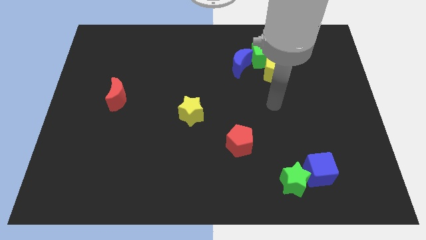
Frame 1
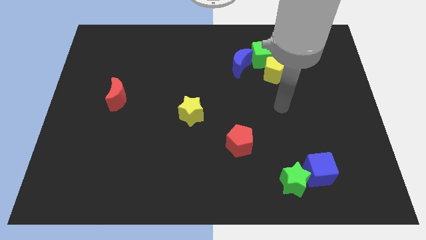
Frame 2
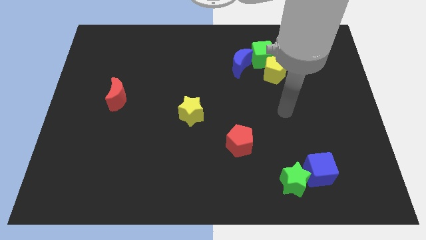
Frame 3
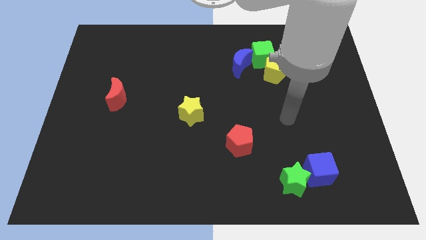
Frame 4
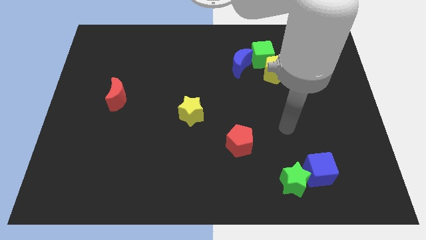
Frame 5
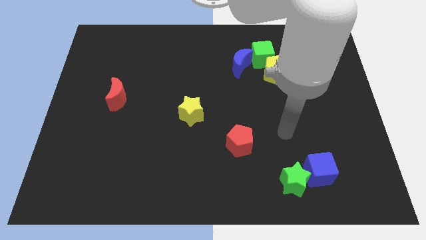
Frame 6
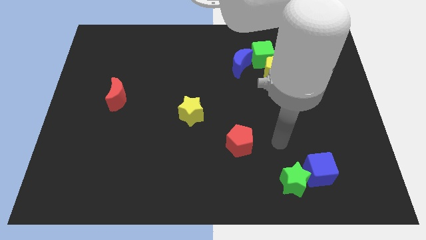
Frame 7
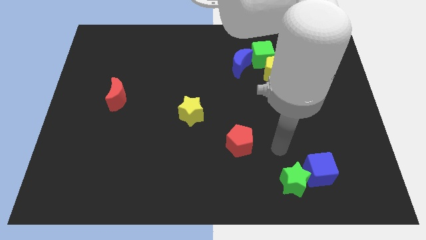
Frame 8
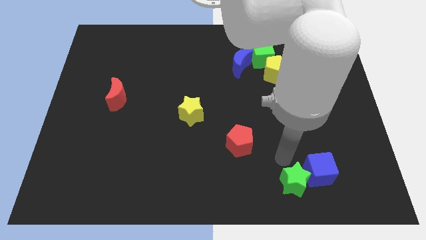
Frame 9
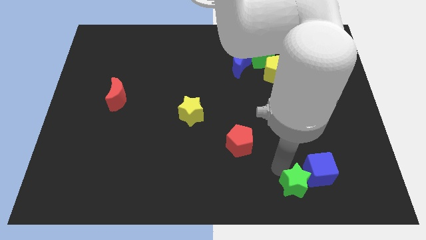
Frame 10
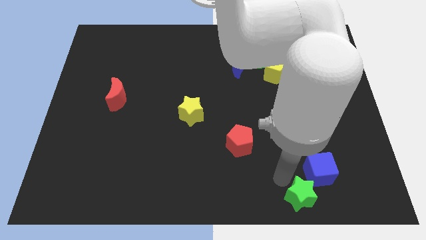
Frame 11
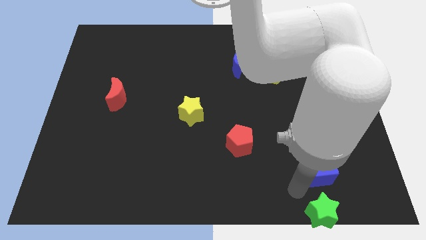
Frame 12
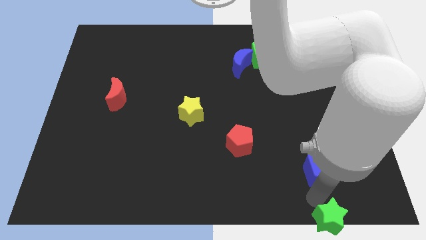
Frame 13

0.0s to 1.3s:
pull the blue cube apart from the green star

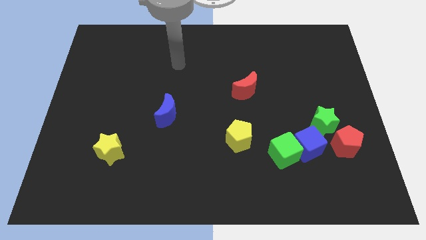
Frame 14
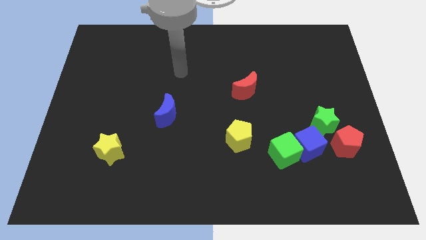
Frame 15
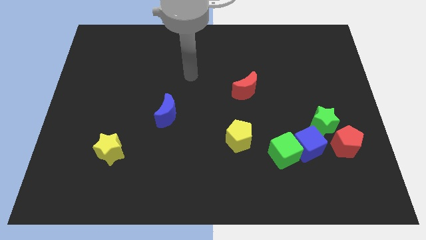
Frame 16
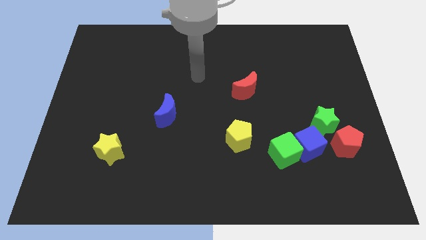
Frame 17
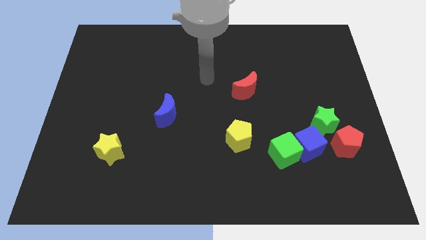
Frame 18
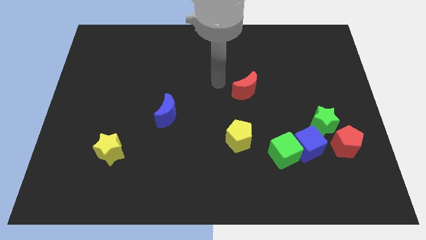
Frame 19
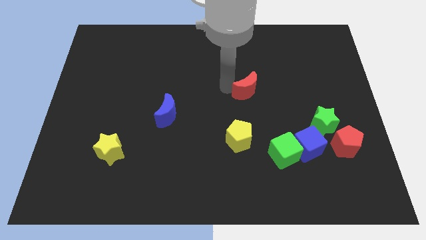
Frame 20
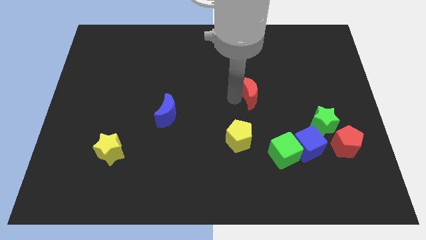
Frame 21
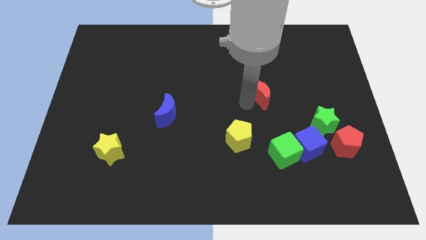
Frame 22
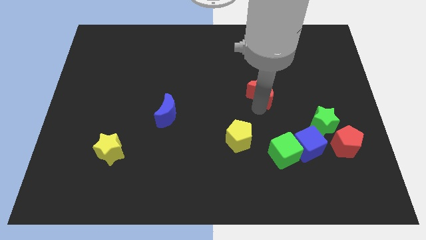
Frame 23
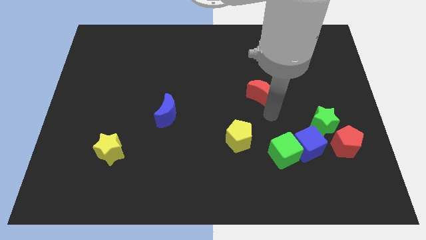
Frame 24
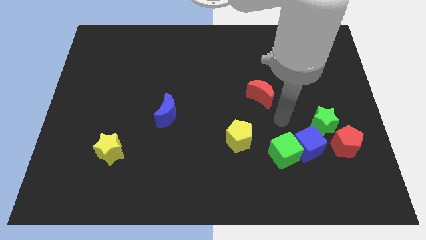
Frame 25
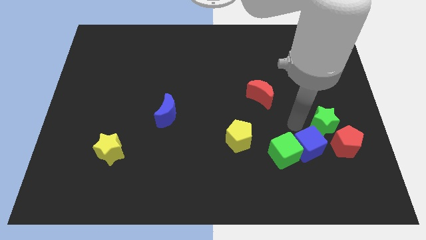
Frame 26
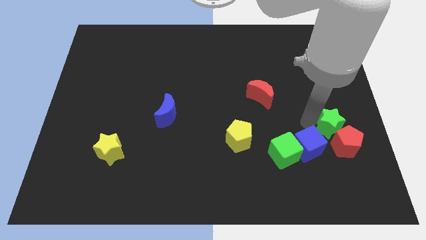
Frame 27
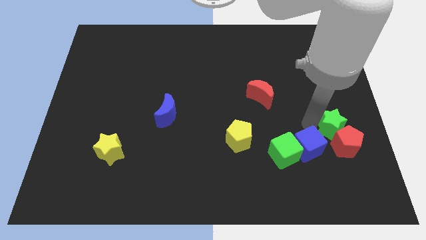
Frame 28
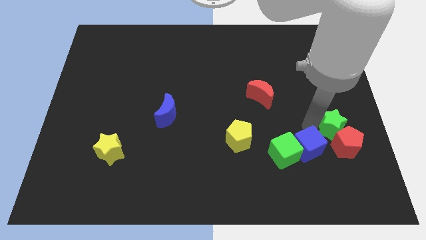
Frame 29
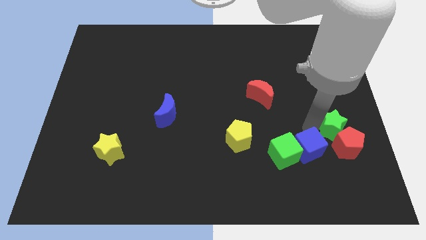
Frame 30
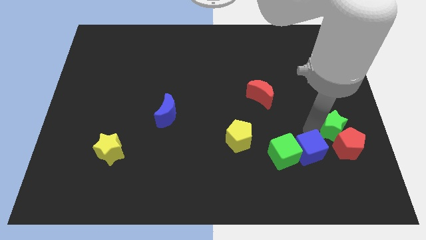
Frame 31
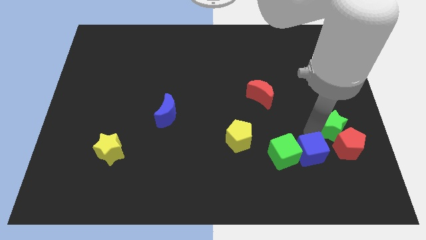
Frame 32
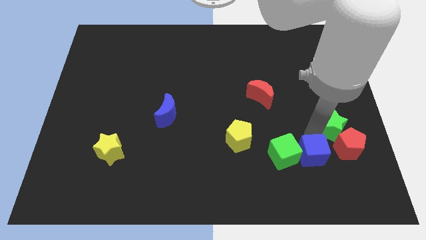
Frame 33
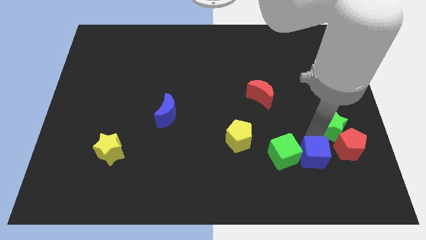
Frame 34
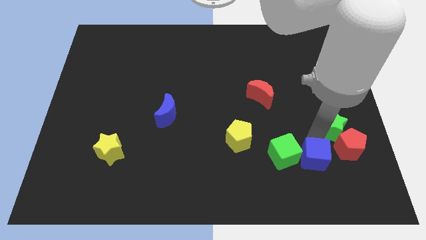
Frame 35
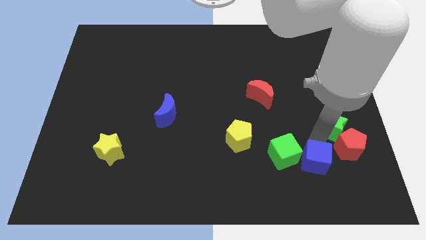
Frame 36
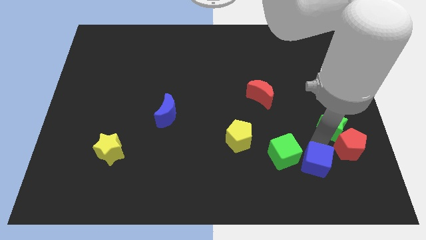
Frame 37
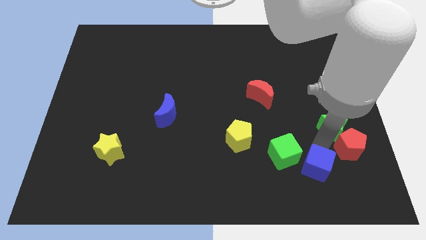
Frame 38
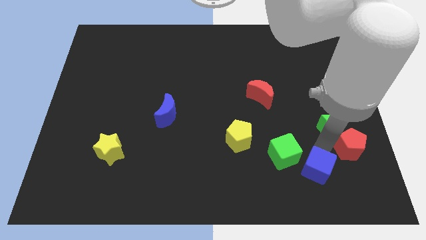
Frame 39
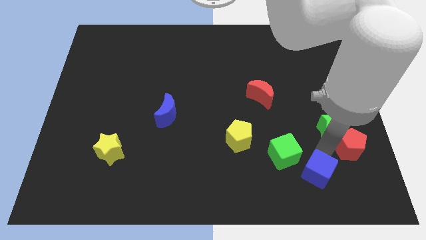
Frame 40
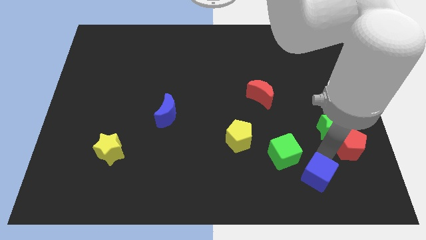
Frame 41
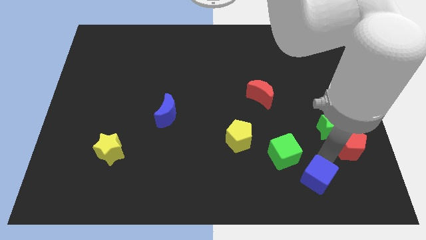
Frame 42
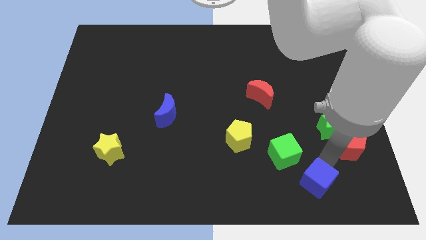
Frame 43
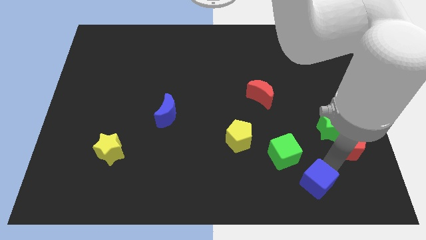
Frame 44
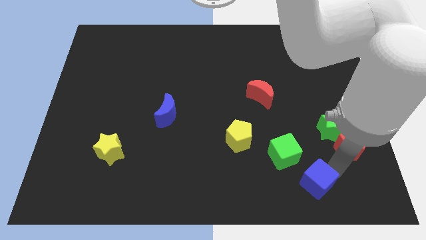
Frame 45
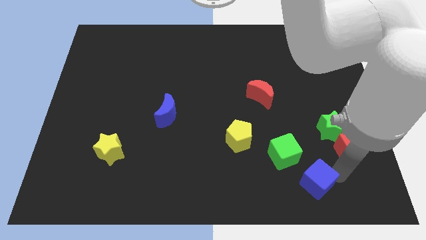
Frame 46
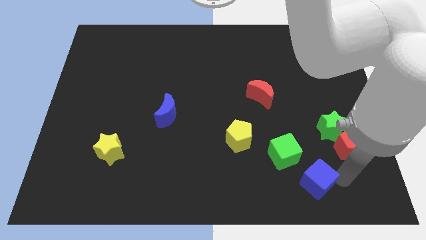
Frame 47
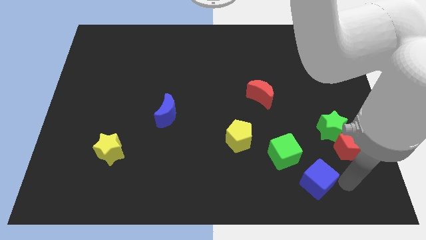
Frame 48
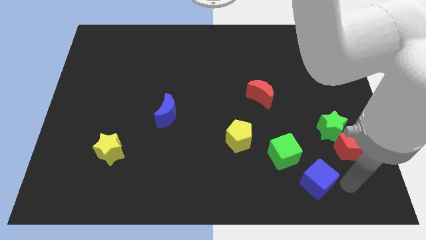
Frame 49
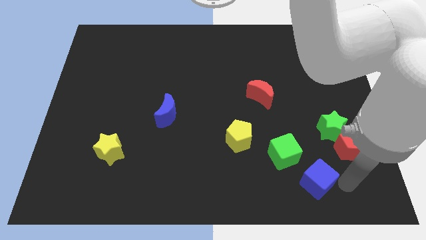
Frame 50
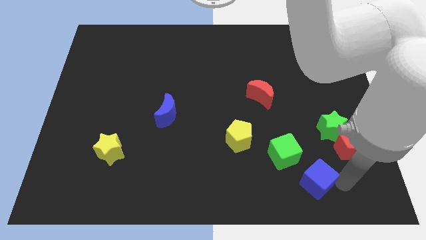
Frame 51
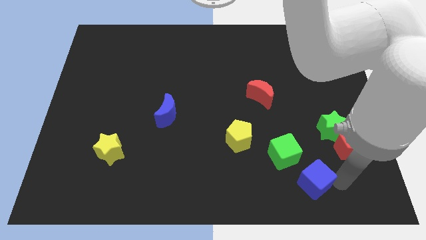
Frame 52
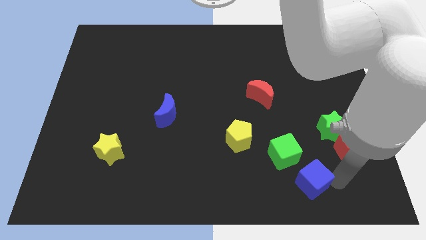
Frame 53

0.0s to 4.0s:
pull the blue cube apart from the green cube, green star, and red pentagon

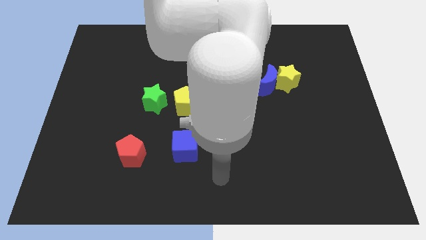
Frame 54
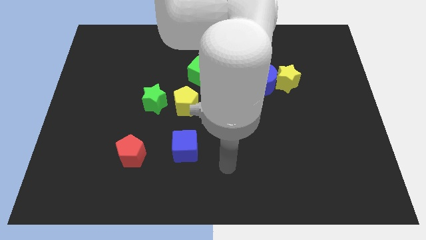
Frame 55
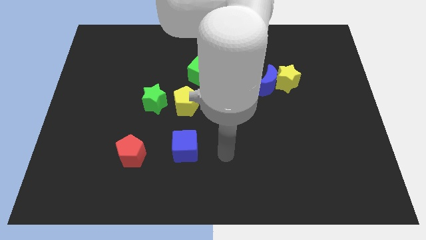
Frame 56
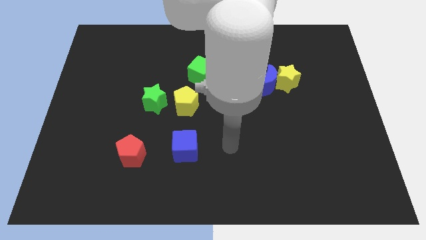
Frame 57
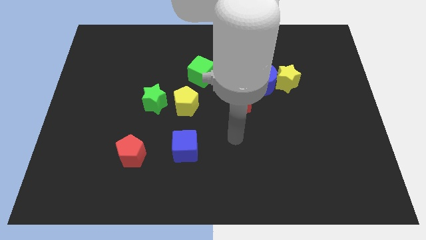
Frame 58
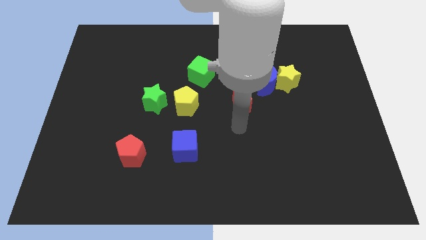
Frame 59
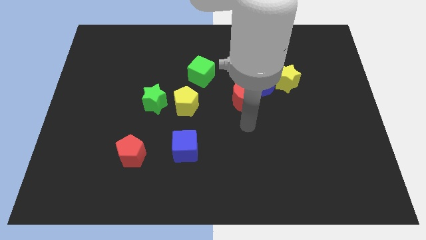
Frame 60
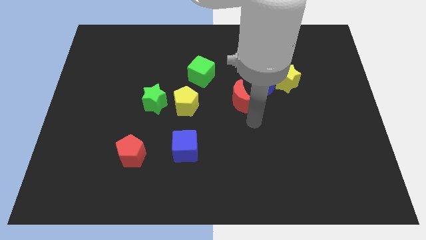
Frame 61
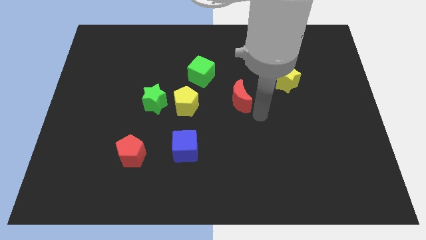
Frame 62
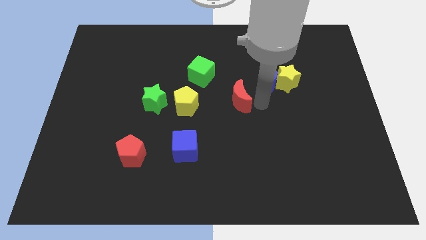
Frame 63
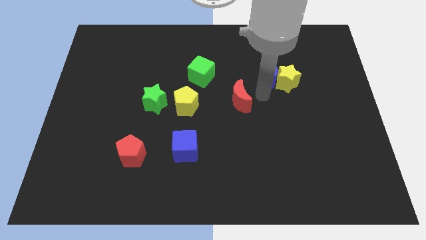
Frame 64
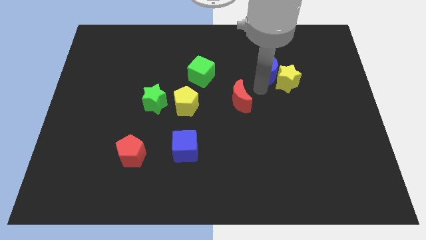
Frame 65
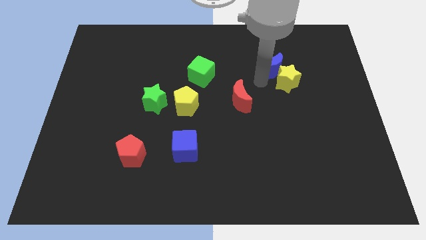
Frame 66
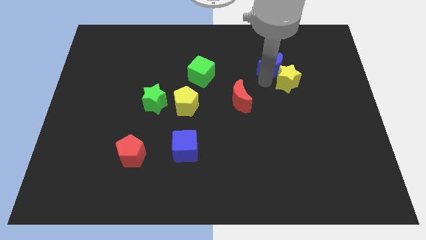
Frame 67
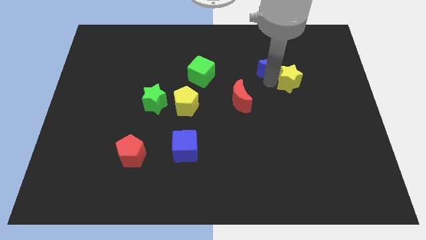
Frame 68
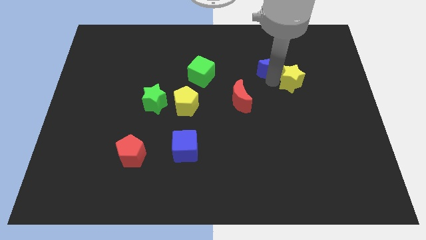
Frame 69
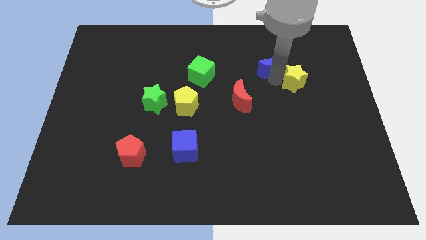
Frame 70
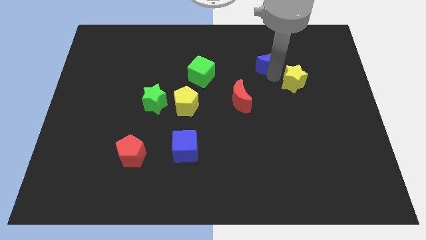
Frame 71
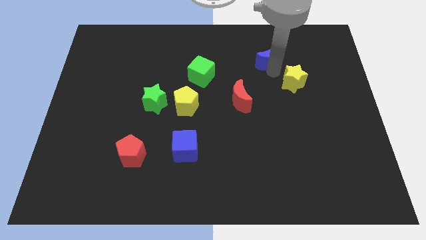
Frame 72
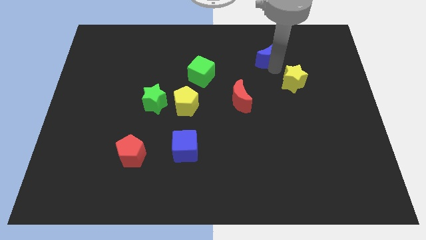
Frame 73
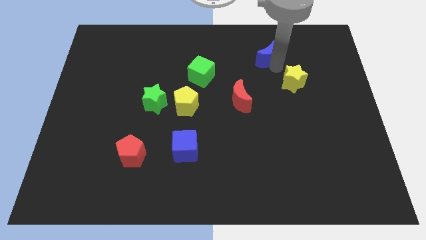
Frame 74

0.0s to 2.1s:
move the yellow star away from the blue moon

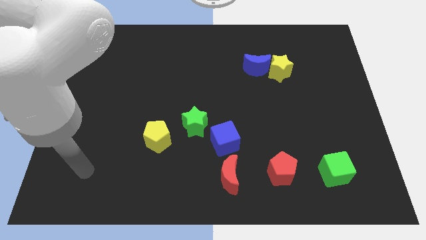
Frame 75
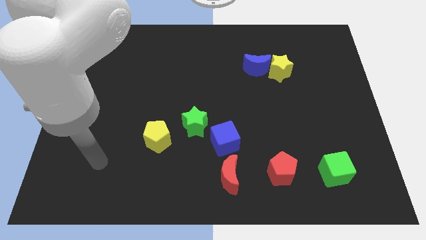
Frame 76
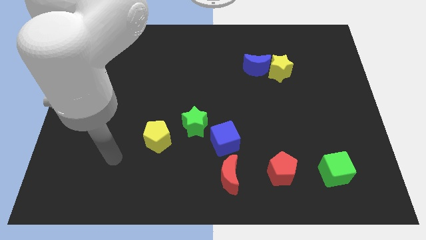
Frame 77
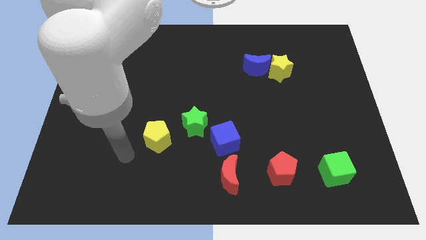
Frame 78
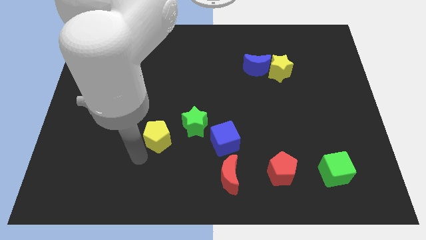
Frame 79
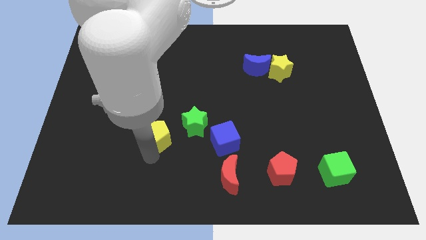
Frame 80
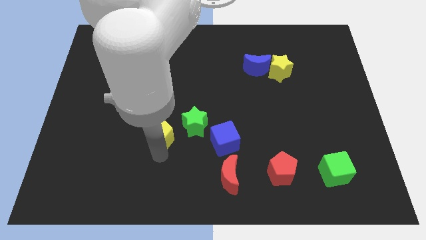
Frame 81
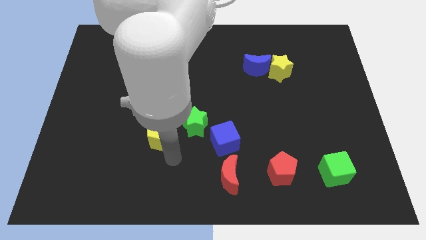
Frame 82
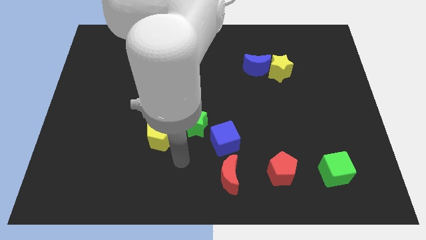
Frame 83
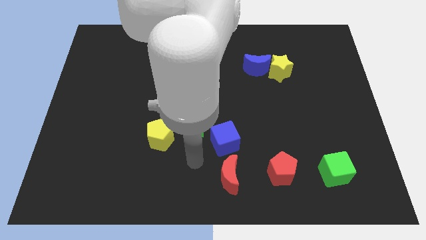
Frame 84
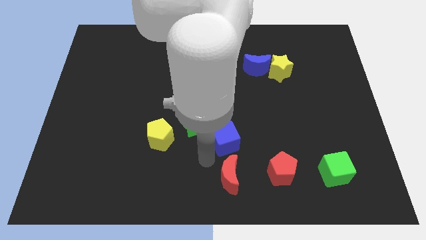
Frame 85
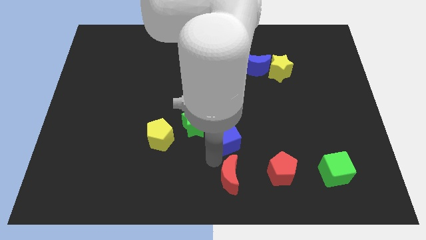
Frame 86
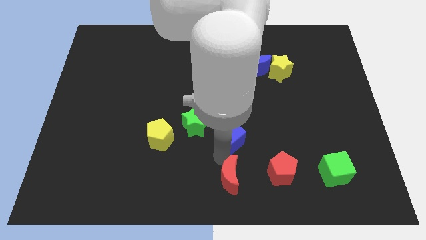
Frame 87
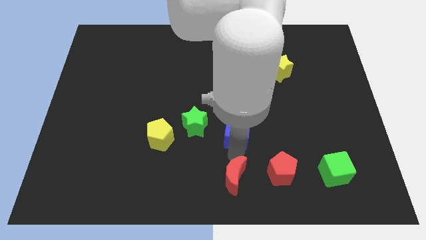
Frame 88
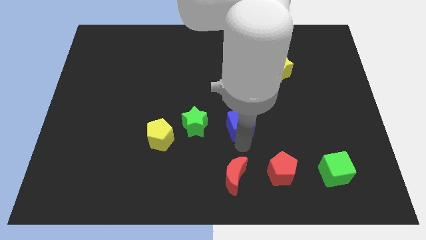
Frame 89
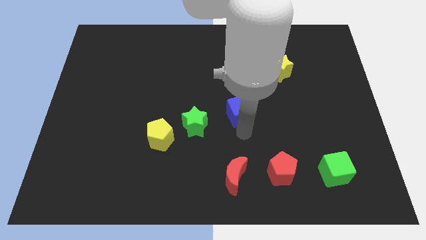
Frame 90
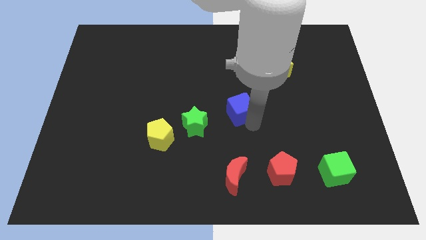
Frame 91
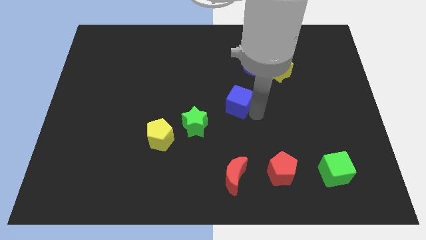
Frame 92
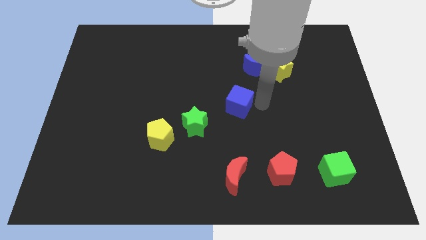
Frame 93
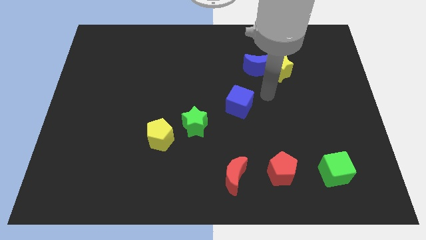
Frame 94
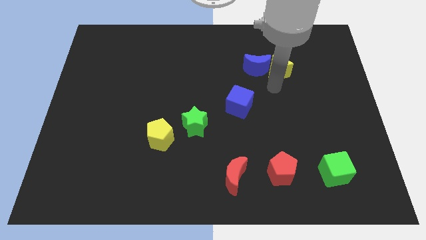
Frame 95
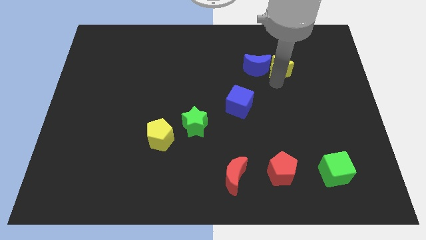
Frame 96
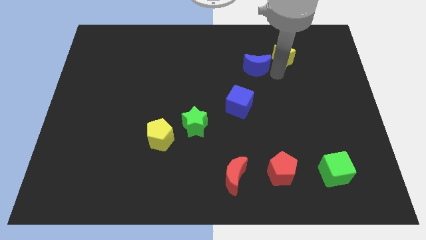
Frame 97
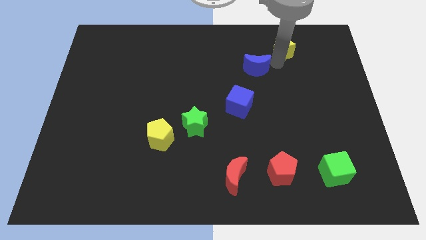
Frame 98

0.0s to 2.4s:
pull the blue moon apart from the yellow star
